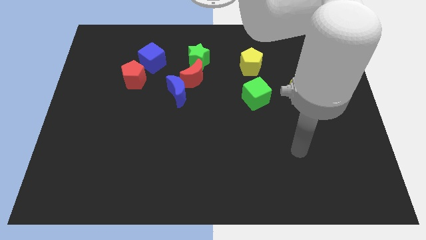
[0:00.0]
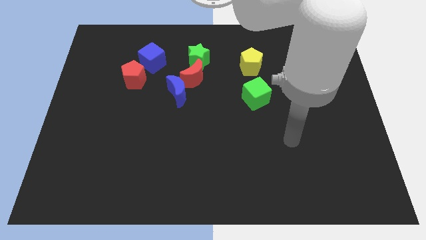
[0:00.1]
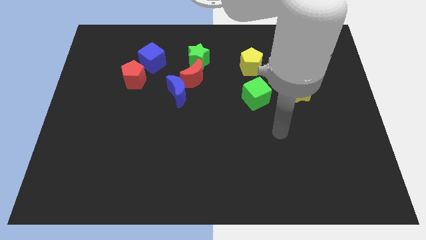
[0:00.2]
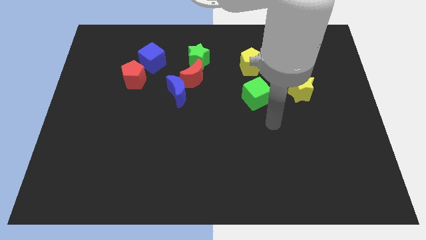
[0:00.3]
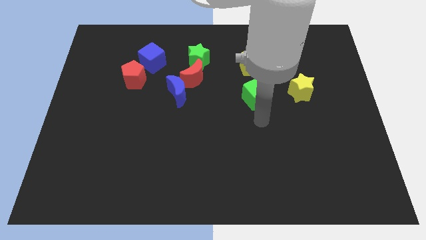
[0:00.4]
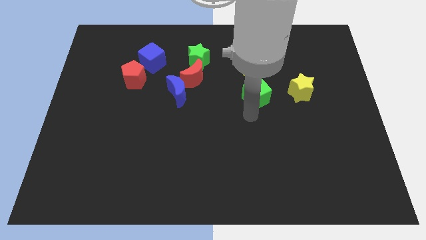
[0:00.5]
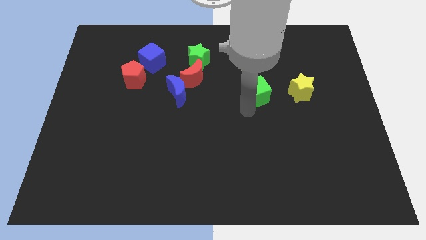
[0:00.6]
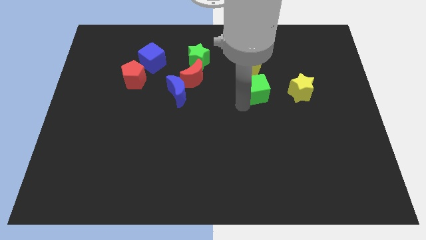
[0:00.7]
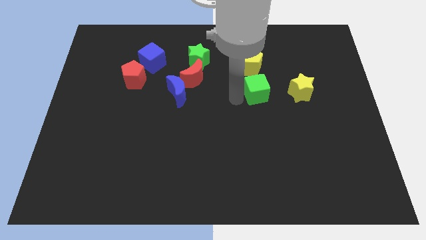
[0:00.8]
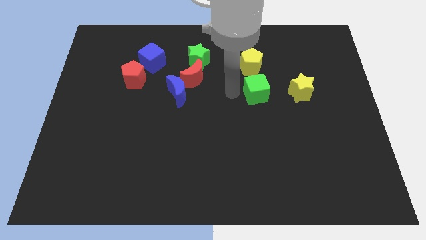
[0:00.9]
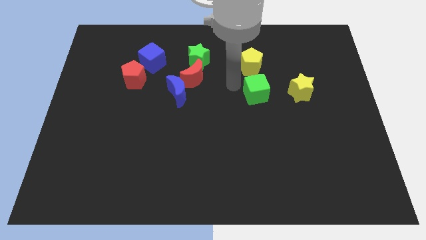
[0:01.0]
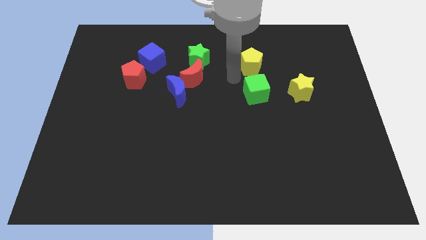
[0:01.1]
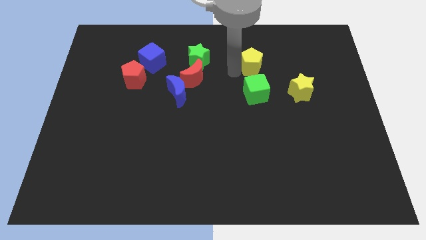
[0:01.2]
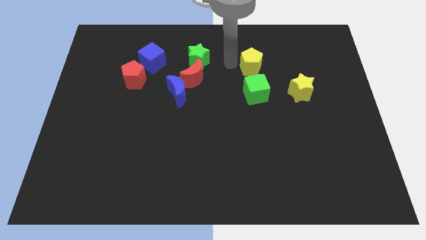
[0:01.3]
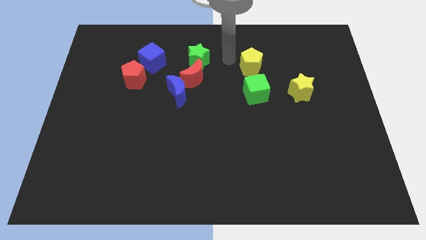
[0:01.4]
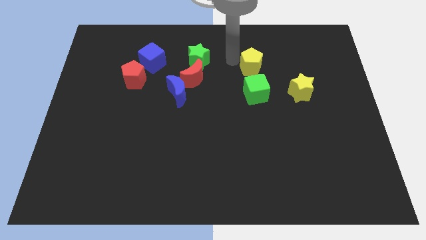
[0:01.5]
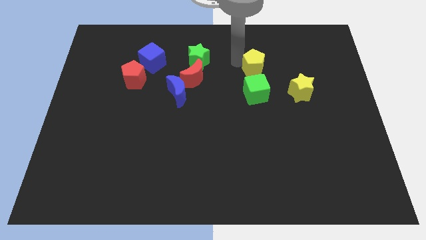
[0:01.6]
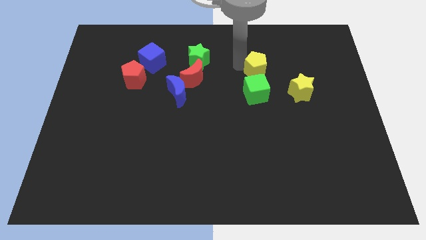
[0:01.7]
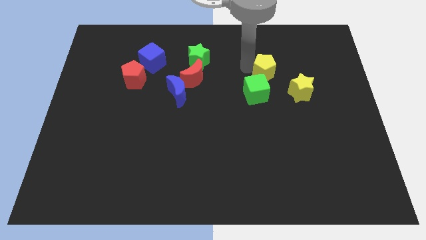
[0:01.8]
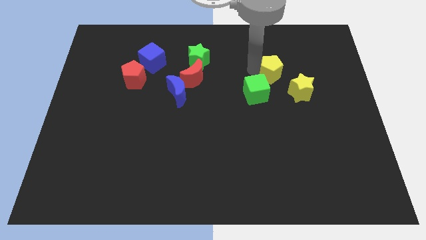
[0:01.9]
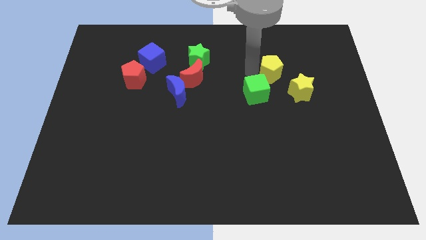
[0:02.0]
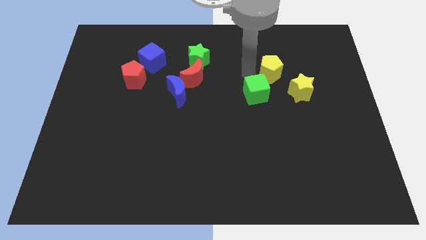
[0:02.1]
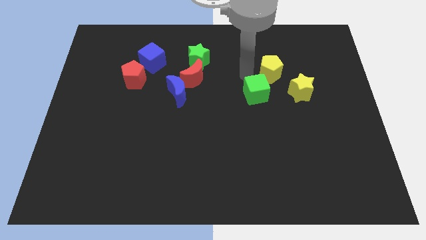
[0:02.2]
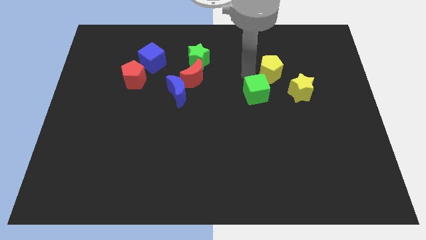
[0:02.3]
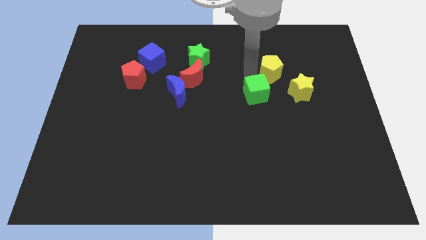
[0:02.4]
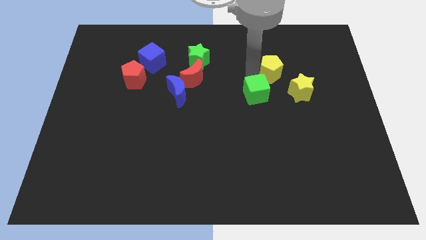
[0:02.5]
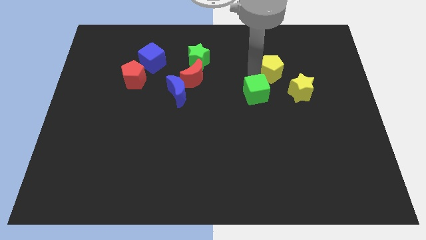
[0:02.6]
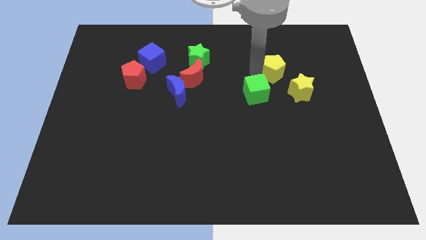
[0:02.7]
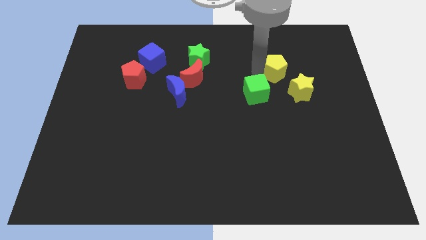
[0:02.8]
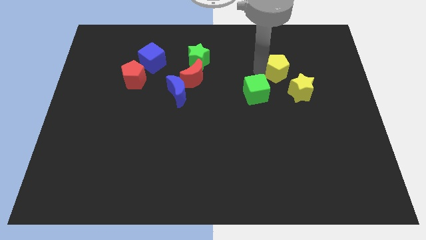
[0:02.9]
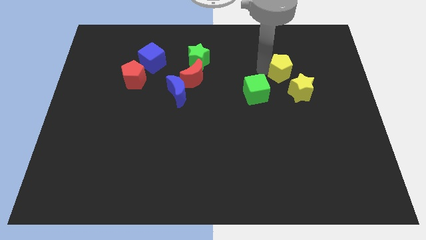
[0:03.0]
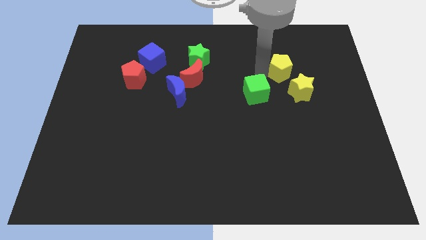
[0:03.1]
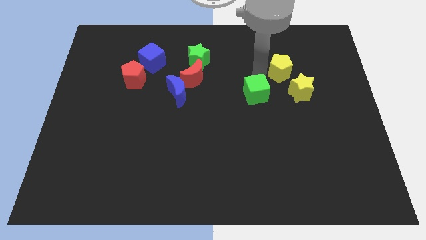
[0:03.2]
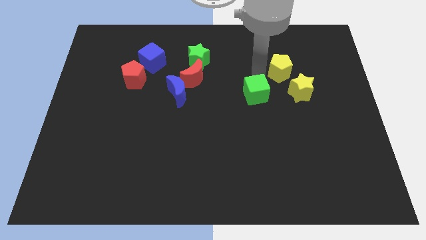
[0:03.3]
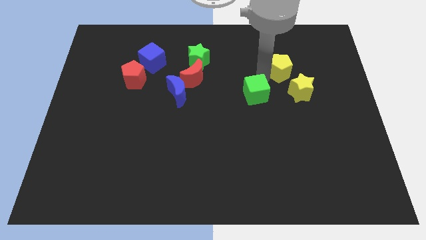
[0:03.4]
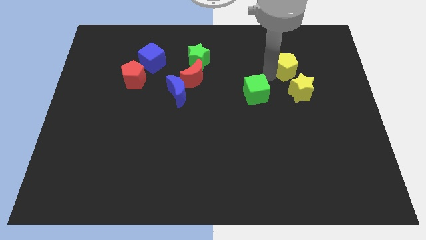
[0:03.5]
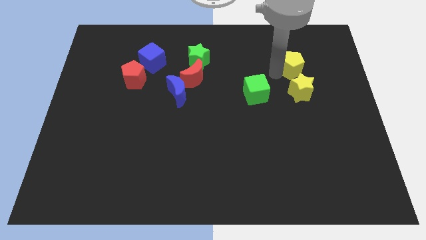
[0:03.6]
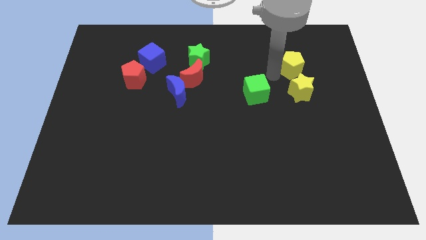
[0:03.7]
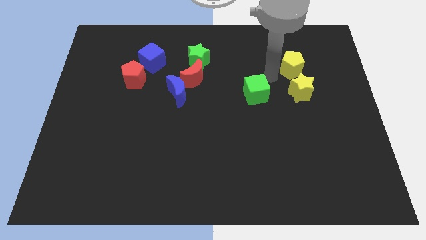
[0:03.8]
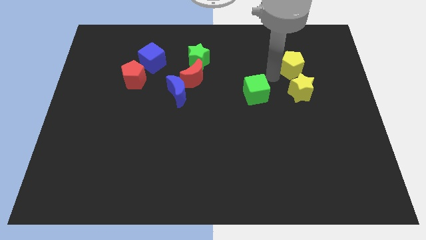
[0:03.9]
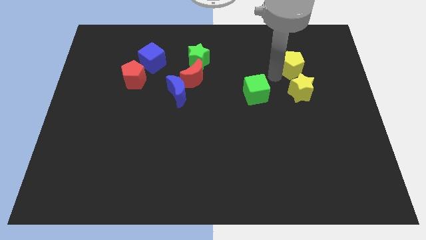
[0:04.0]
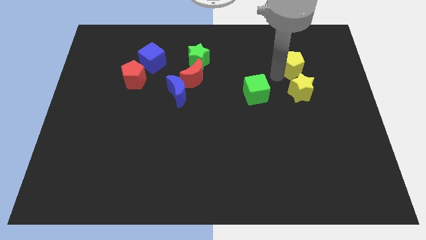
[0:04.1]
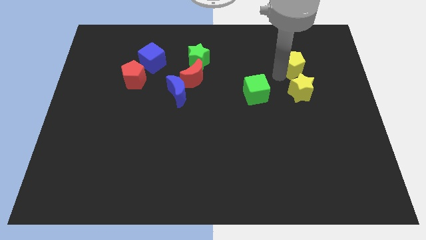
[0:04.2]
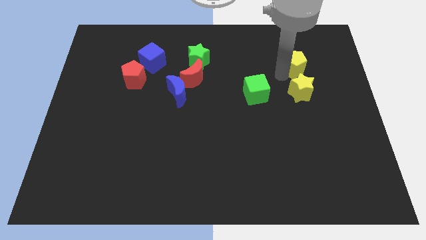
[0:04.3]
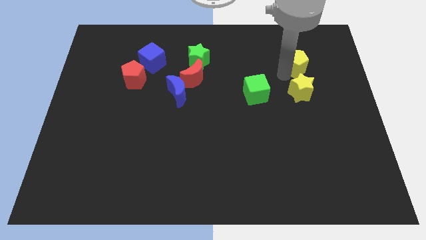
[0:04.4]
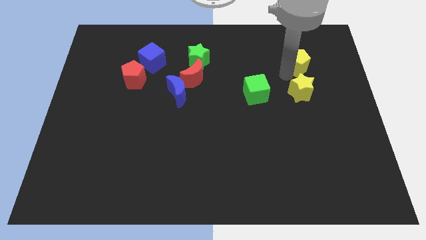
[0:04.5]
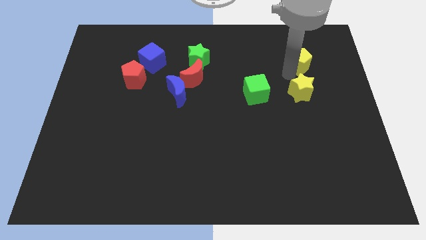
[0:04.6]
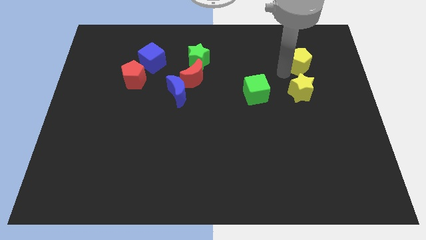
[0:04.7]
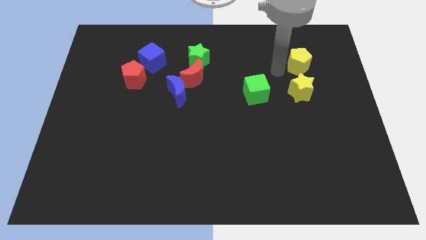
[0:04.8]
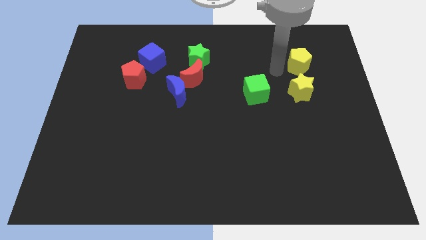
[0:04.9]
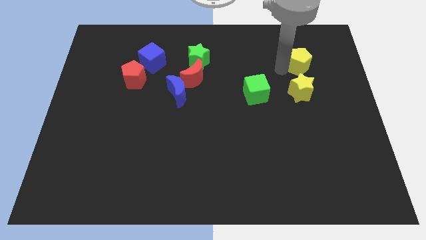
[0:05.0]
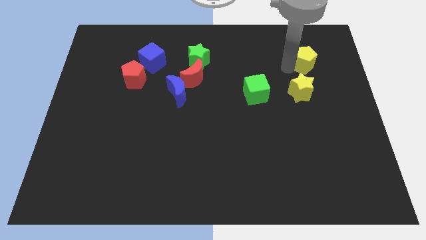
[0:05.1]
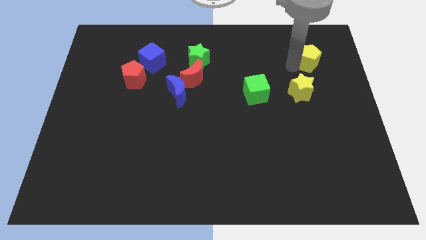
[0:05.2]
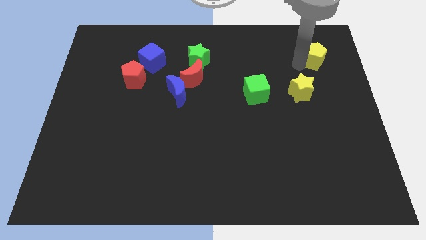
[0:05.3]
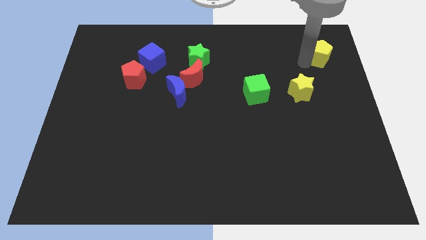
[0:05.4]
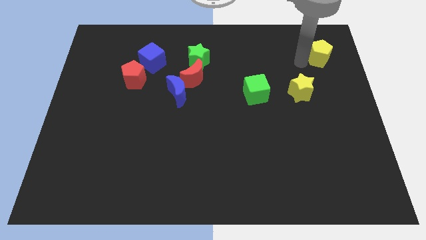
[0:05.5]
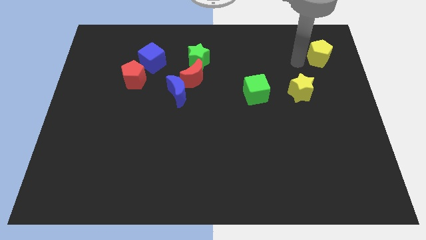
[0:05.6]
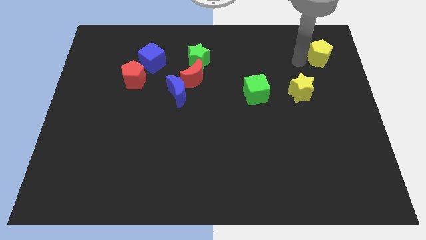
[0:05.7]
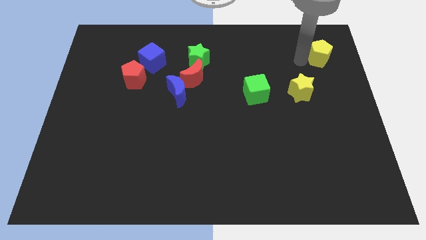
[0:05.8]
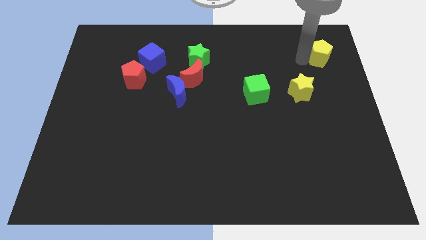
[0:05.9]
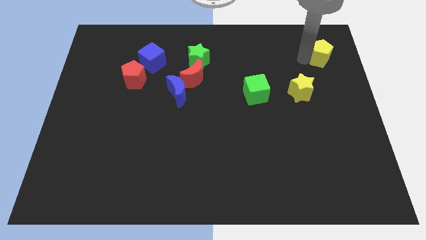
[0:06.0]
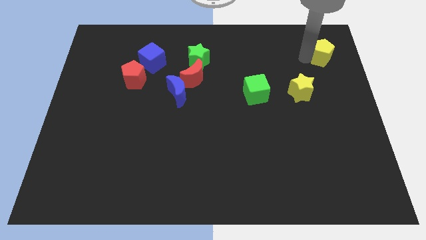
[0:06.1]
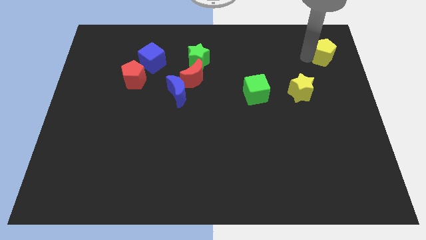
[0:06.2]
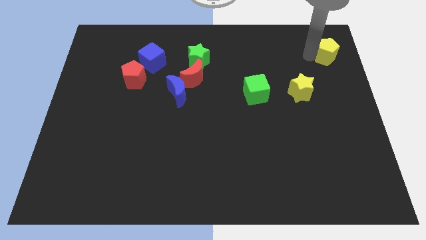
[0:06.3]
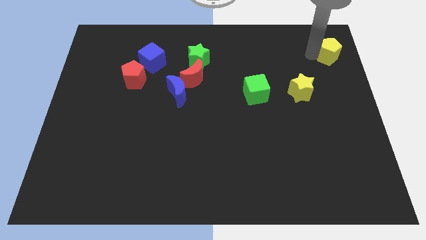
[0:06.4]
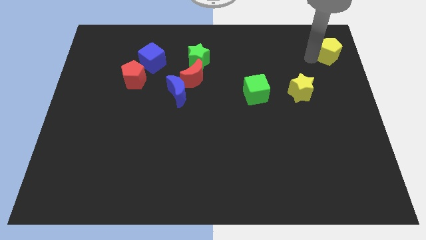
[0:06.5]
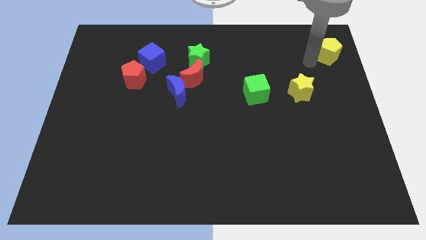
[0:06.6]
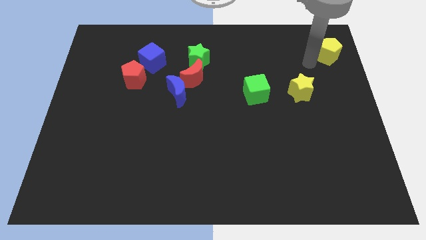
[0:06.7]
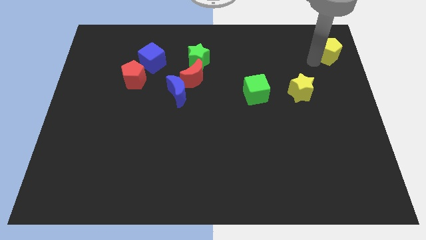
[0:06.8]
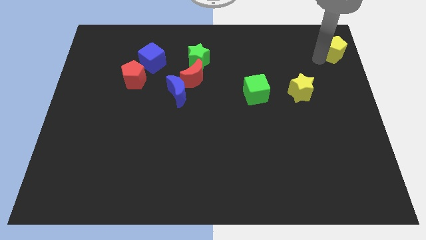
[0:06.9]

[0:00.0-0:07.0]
move the yellow pentagon to the top right
